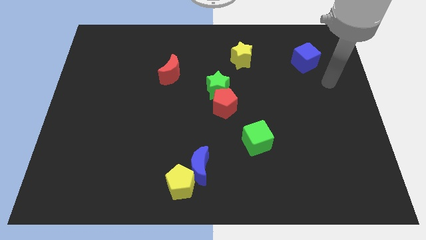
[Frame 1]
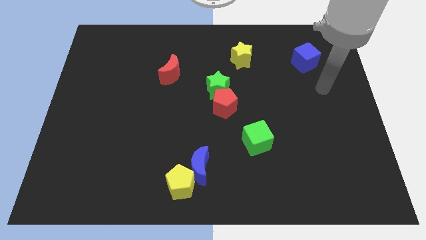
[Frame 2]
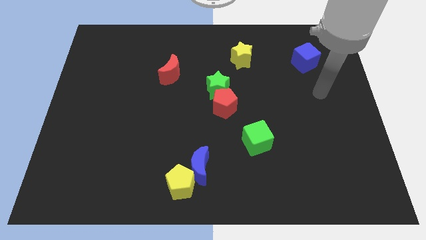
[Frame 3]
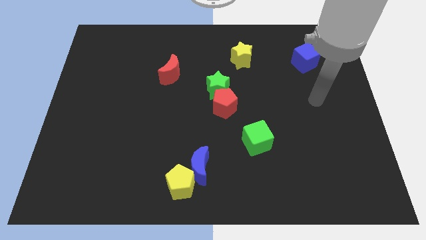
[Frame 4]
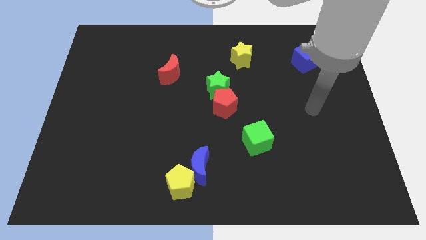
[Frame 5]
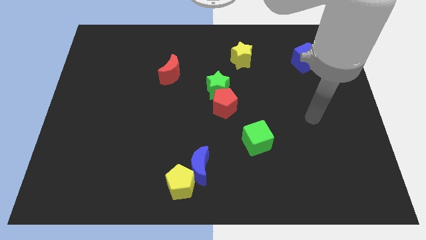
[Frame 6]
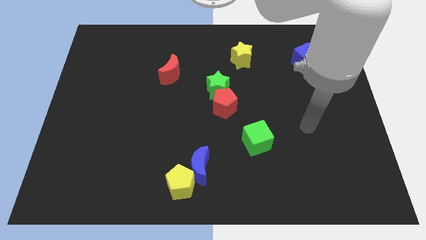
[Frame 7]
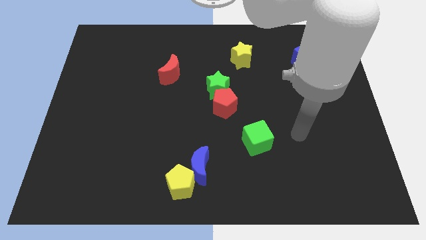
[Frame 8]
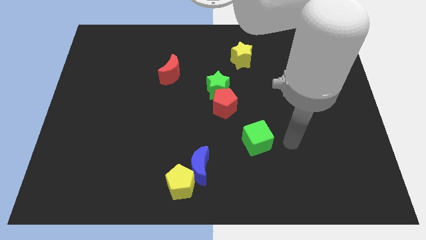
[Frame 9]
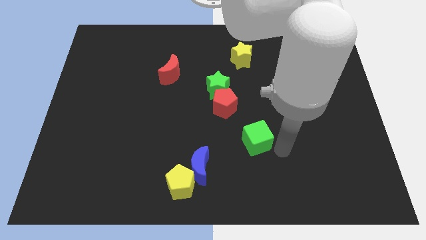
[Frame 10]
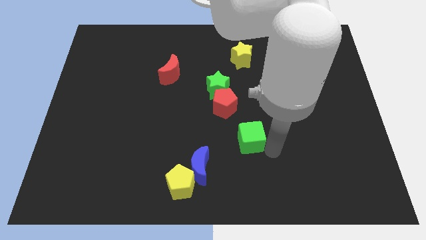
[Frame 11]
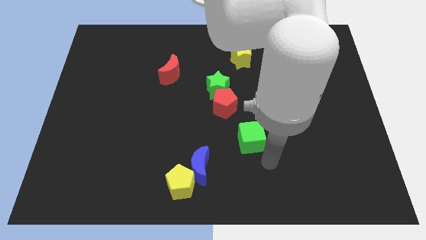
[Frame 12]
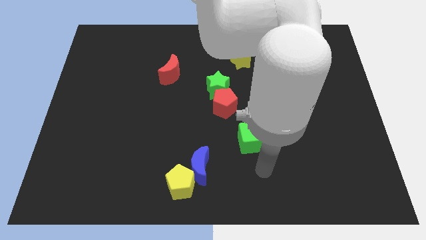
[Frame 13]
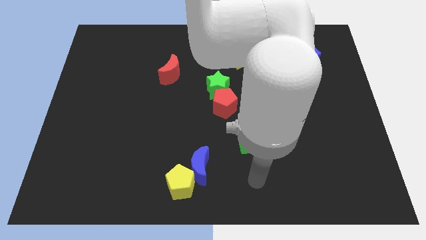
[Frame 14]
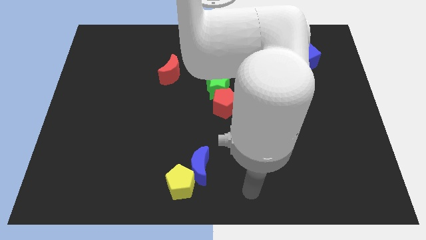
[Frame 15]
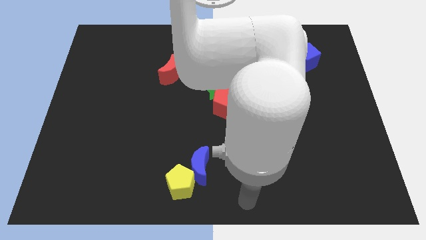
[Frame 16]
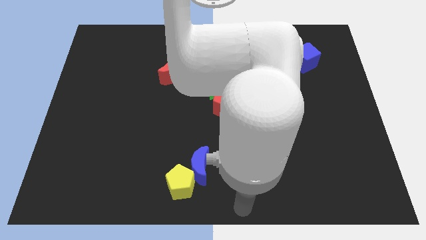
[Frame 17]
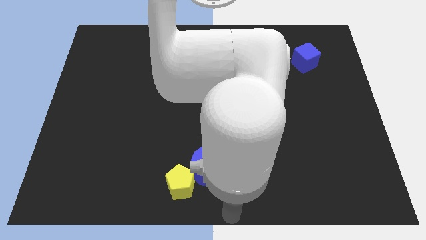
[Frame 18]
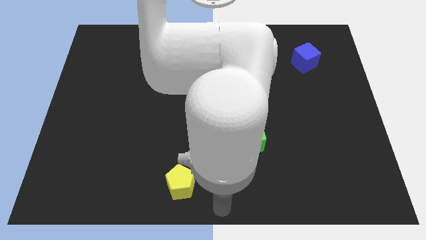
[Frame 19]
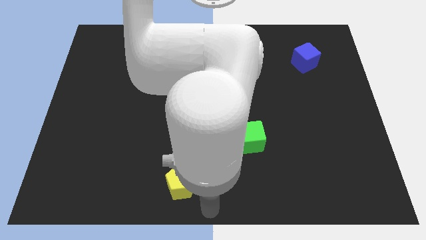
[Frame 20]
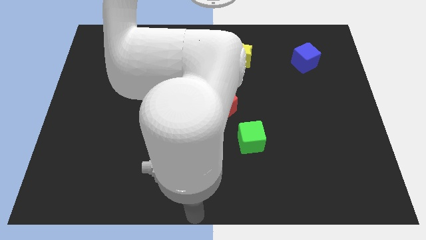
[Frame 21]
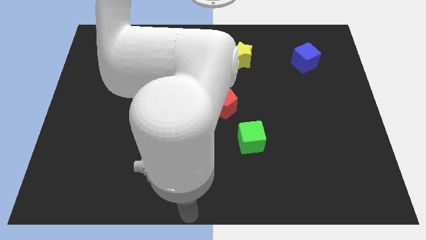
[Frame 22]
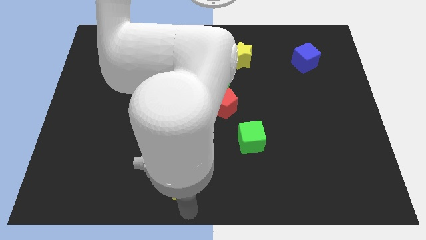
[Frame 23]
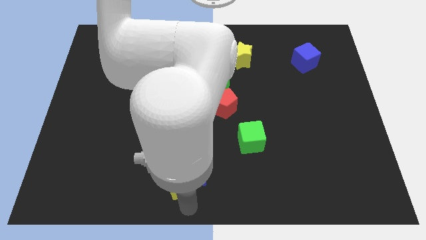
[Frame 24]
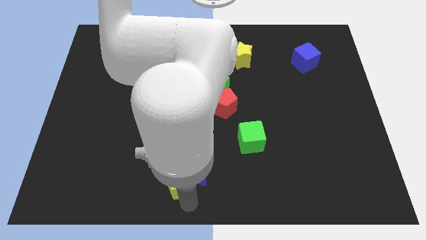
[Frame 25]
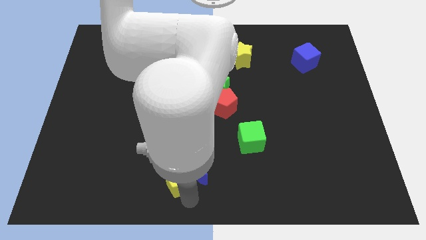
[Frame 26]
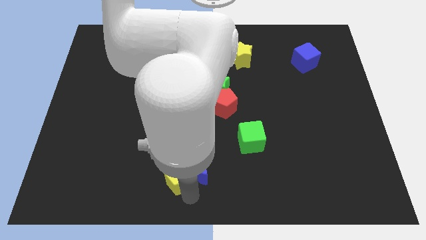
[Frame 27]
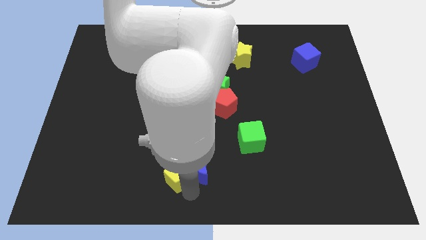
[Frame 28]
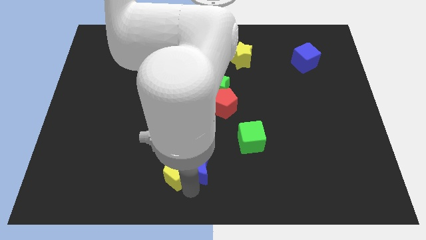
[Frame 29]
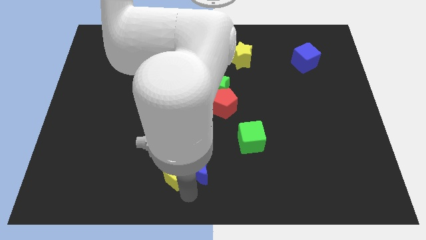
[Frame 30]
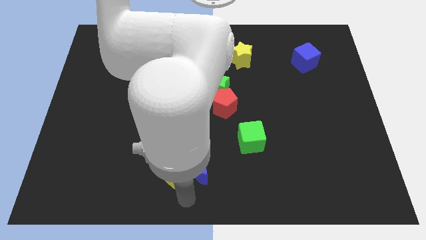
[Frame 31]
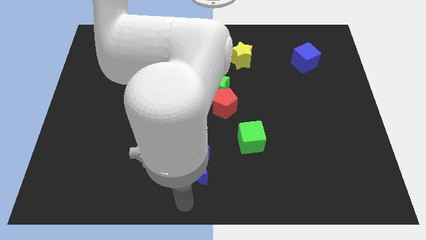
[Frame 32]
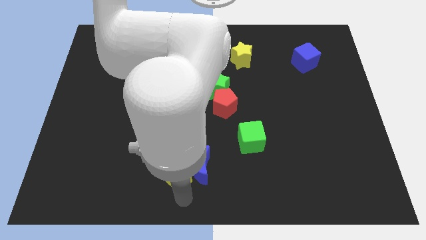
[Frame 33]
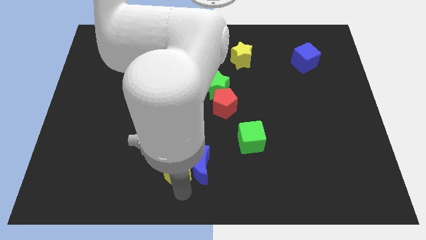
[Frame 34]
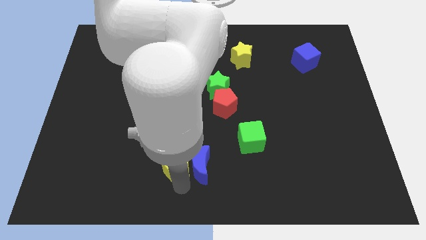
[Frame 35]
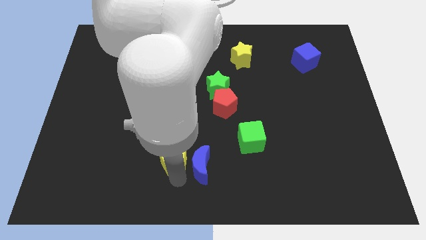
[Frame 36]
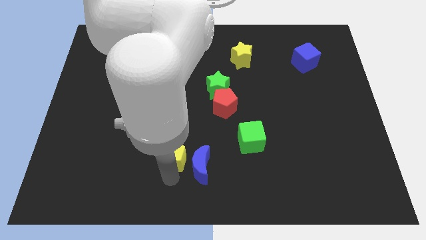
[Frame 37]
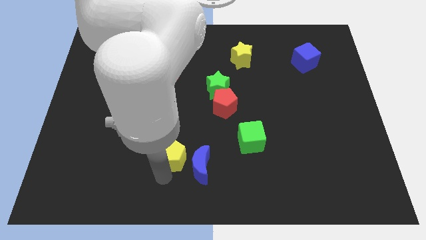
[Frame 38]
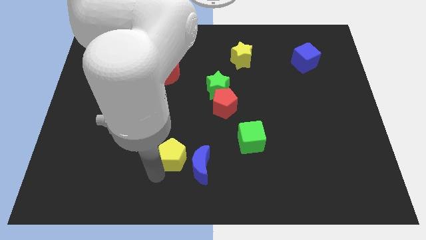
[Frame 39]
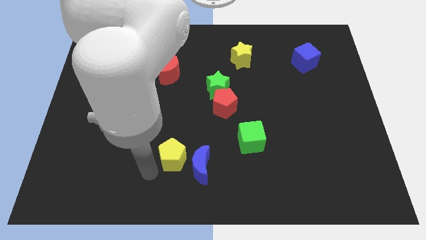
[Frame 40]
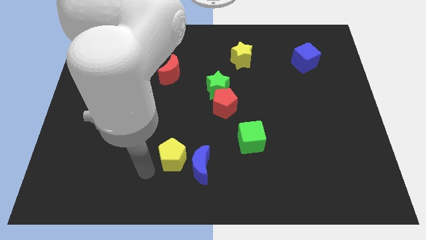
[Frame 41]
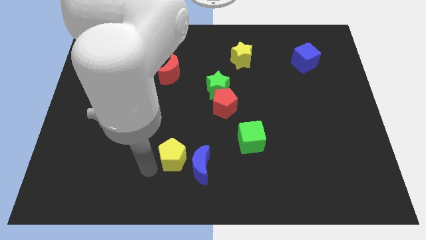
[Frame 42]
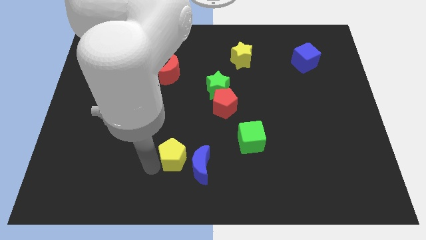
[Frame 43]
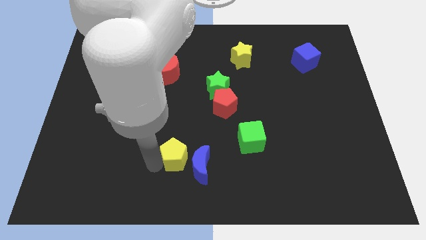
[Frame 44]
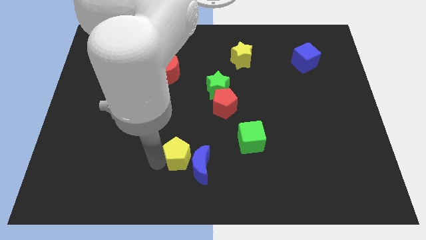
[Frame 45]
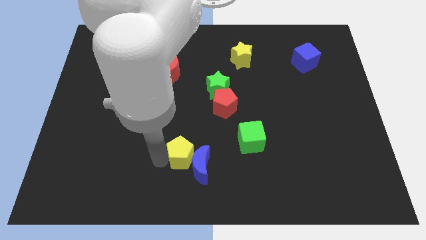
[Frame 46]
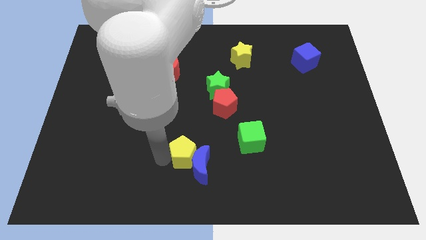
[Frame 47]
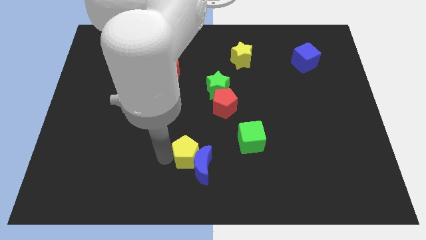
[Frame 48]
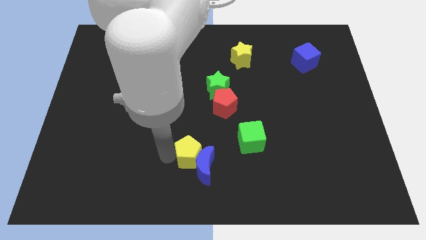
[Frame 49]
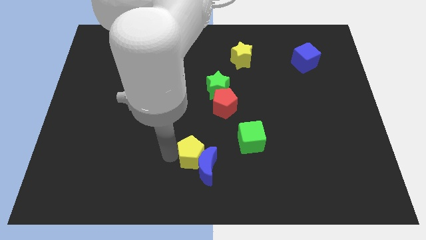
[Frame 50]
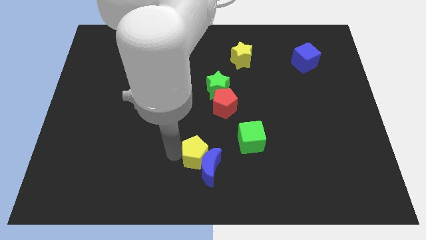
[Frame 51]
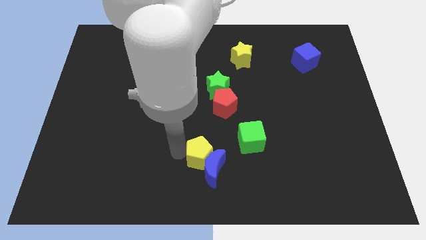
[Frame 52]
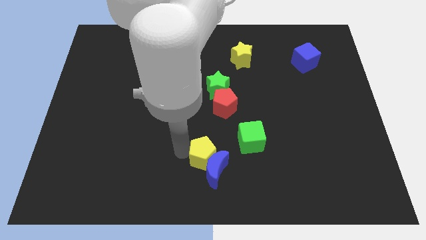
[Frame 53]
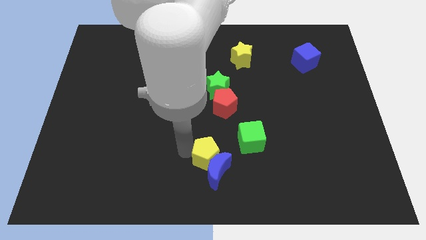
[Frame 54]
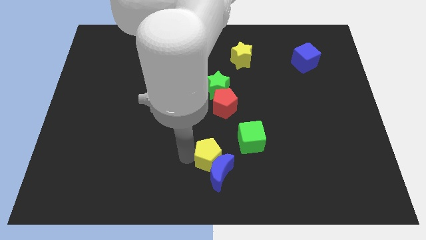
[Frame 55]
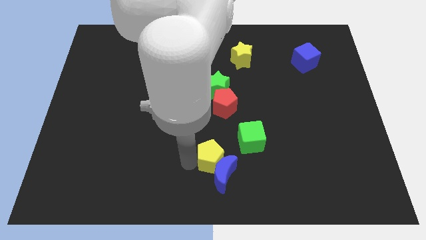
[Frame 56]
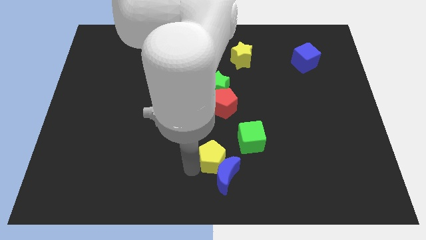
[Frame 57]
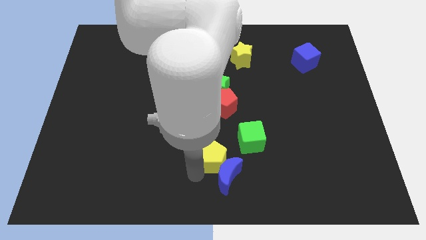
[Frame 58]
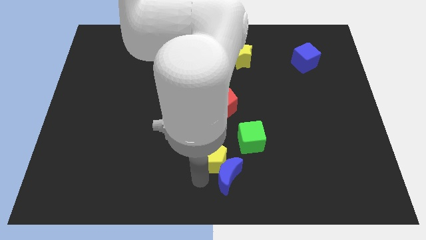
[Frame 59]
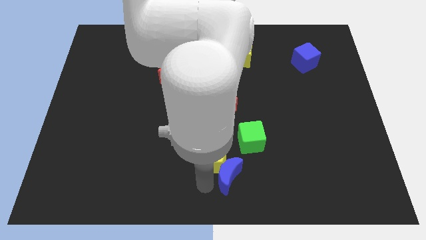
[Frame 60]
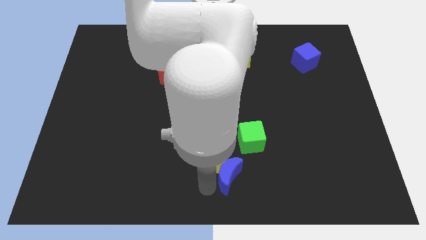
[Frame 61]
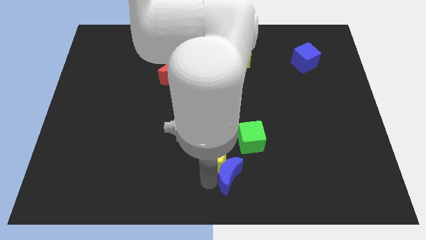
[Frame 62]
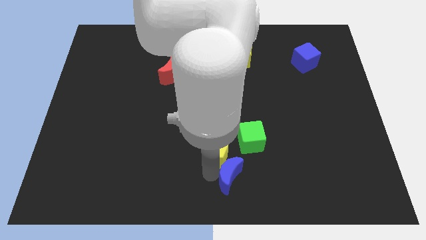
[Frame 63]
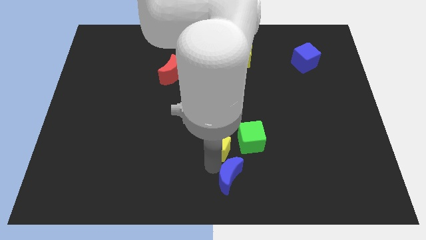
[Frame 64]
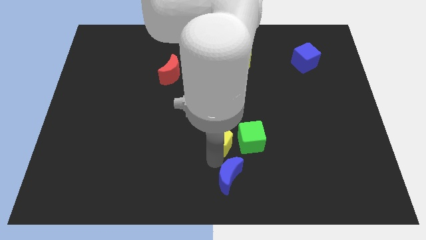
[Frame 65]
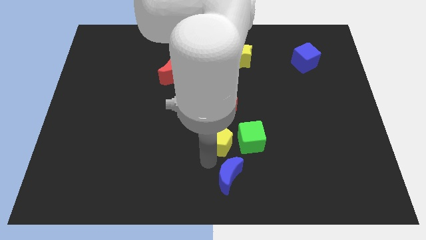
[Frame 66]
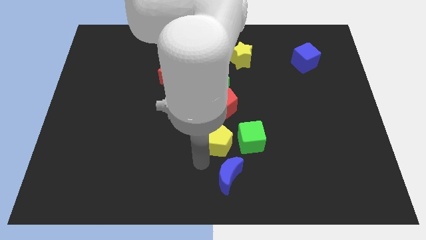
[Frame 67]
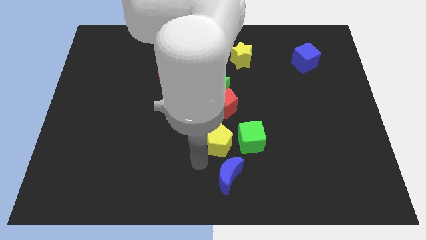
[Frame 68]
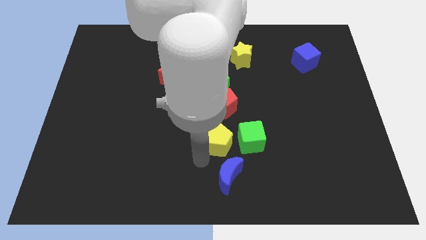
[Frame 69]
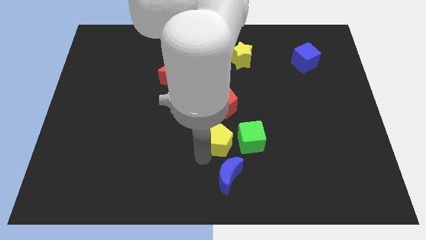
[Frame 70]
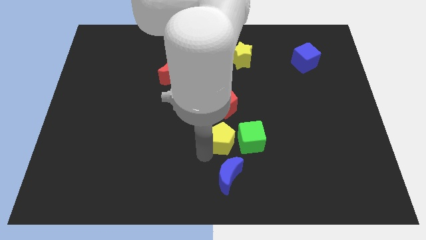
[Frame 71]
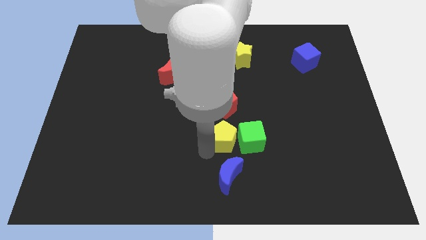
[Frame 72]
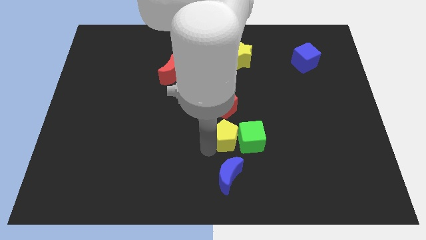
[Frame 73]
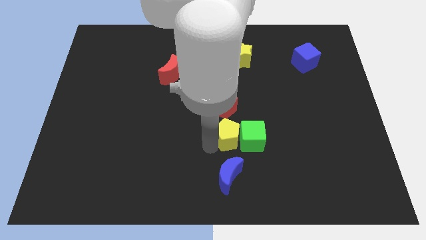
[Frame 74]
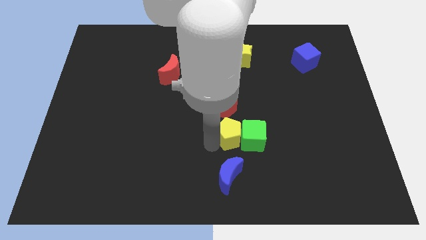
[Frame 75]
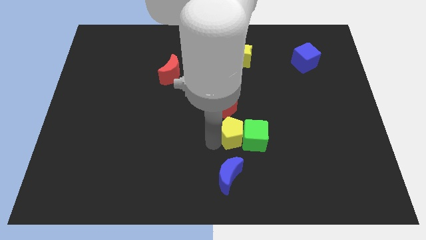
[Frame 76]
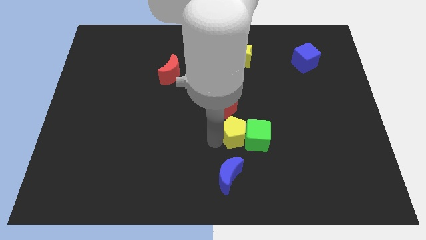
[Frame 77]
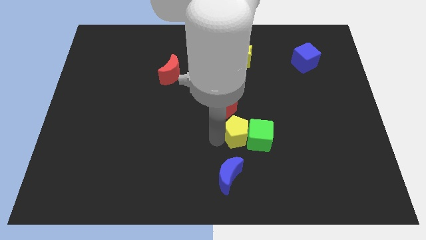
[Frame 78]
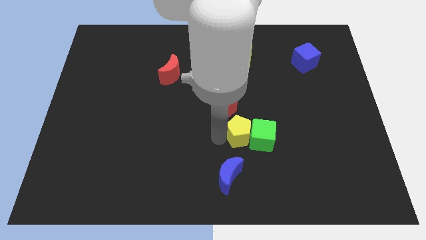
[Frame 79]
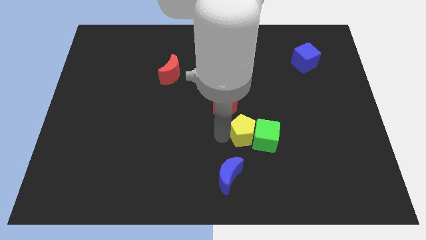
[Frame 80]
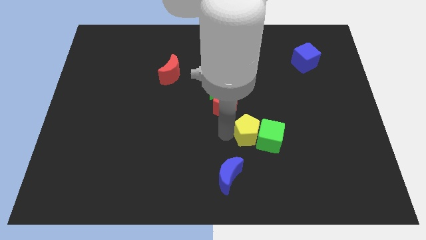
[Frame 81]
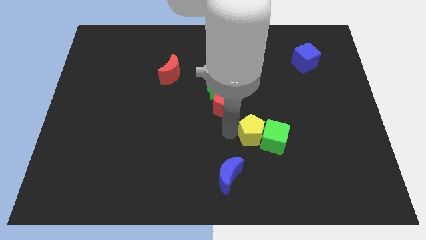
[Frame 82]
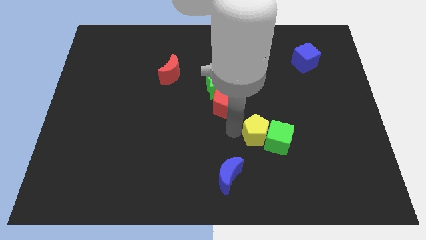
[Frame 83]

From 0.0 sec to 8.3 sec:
push the yellow pentagon upwards and to the right diagonally

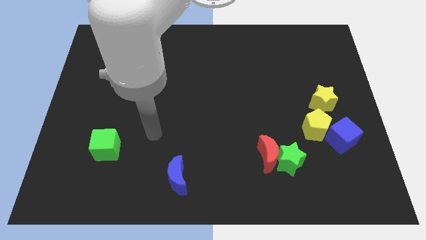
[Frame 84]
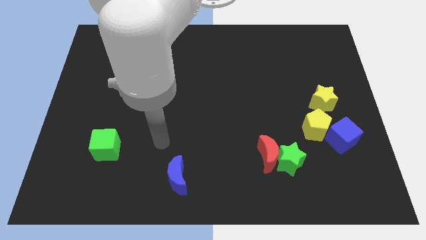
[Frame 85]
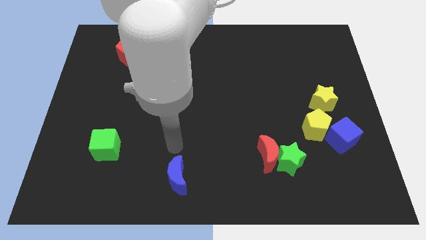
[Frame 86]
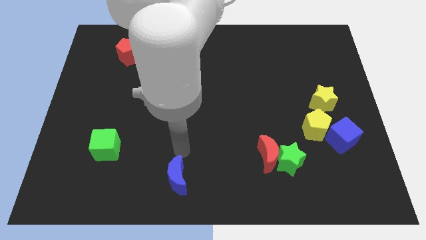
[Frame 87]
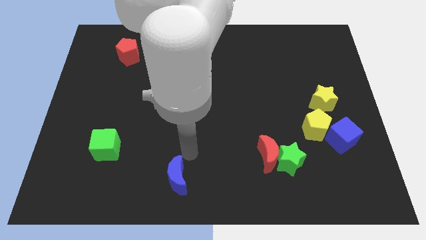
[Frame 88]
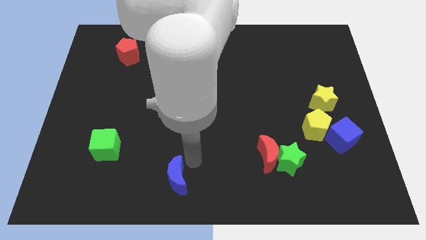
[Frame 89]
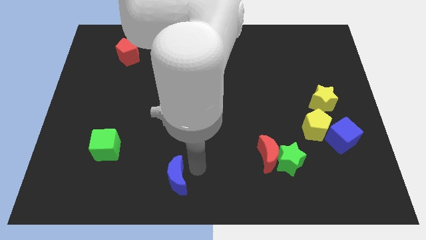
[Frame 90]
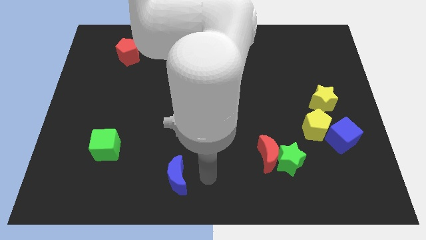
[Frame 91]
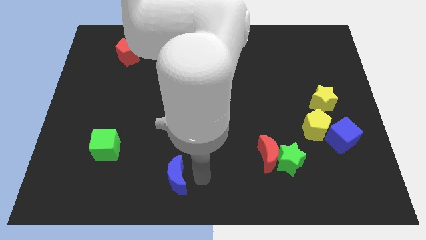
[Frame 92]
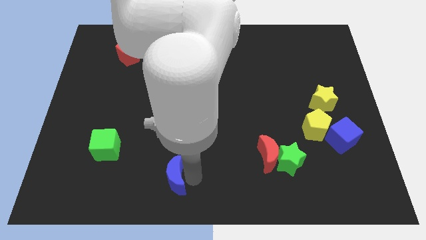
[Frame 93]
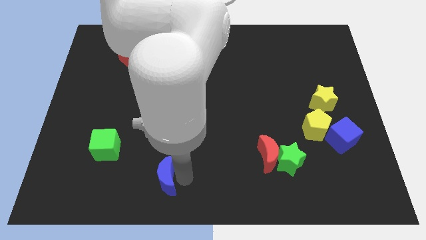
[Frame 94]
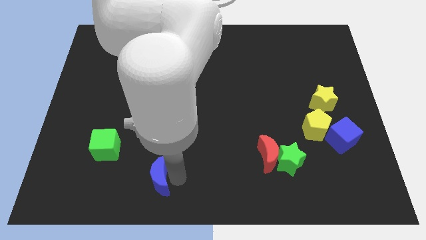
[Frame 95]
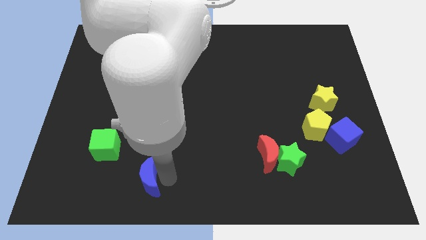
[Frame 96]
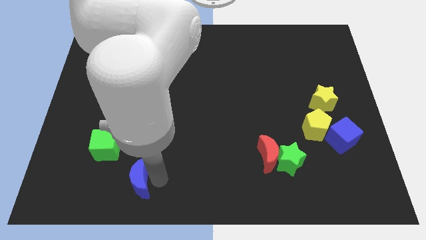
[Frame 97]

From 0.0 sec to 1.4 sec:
slightly push the blue moon left
